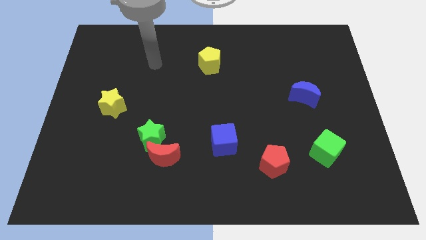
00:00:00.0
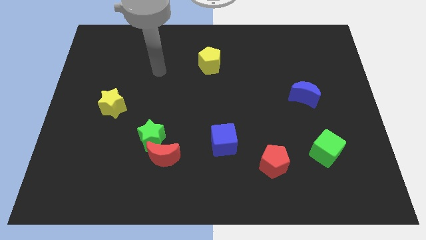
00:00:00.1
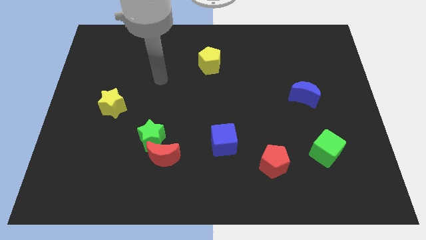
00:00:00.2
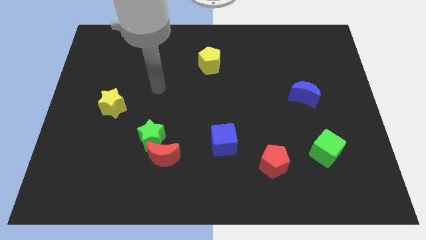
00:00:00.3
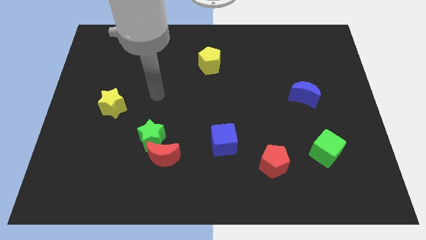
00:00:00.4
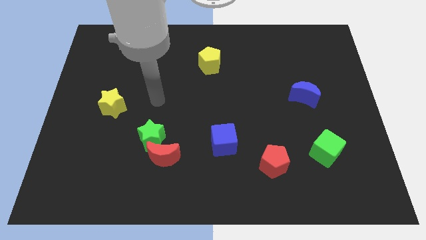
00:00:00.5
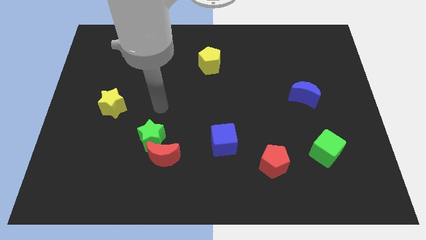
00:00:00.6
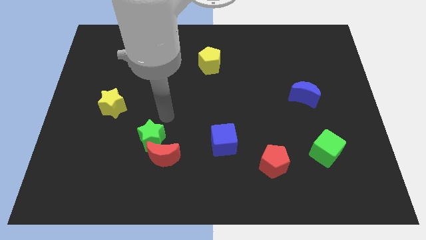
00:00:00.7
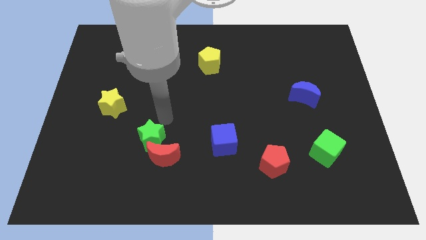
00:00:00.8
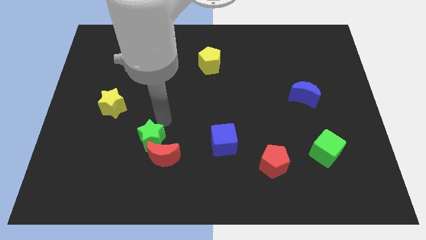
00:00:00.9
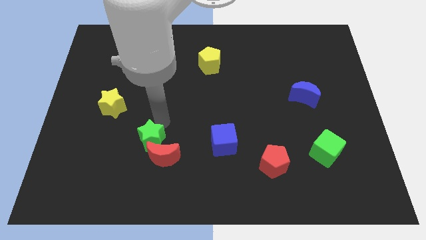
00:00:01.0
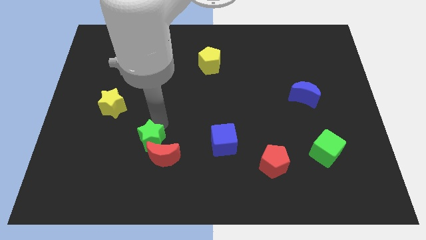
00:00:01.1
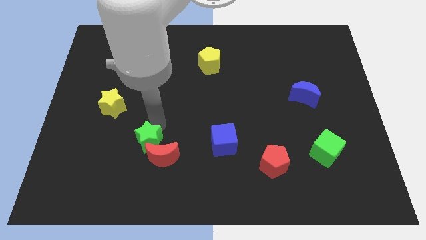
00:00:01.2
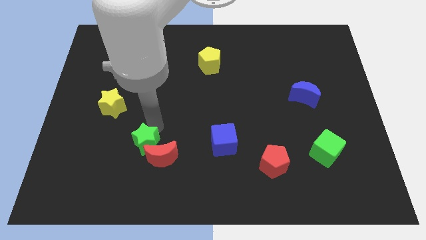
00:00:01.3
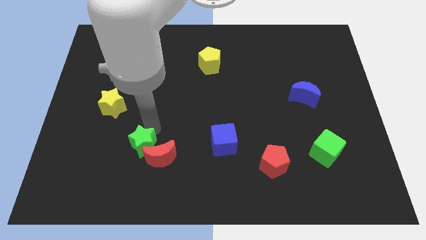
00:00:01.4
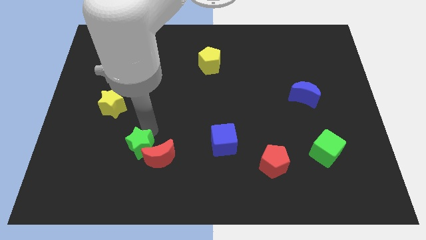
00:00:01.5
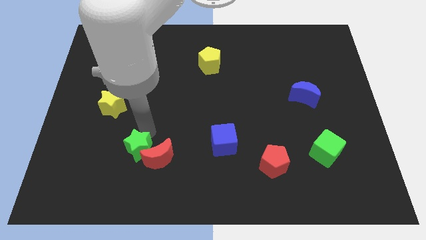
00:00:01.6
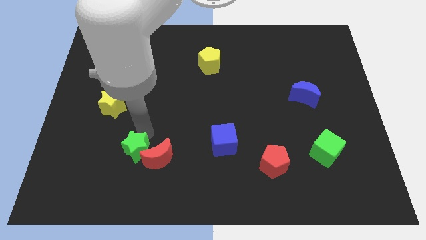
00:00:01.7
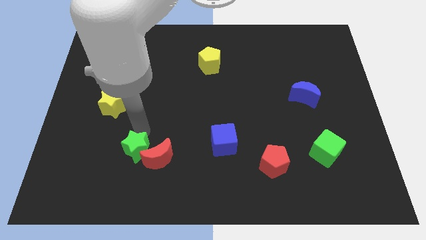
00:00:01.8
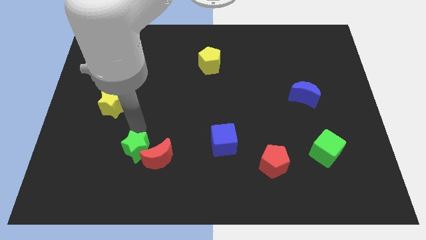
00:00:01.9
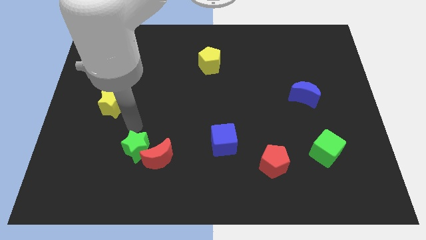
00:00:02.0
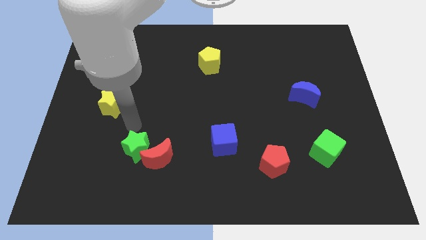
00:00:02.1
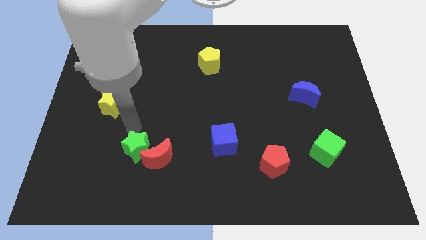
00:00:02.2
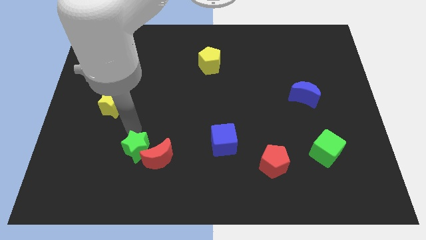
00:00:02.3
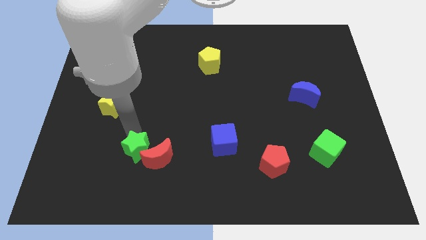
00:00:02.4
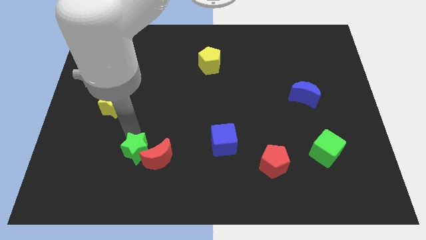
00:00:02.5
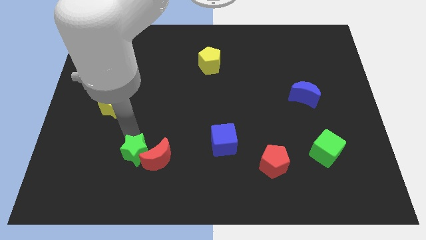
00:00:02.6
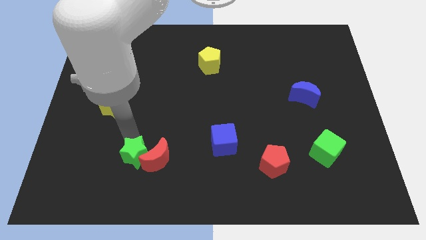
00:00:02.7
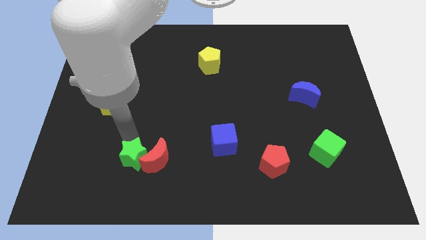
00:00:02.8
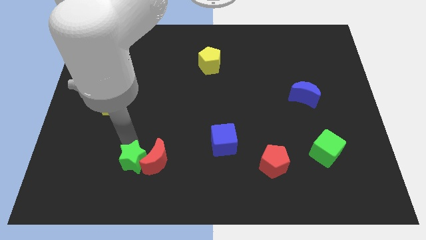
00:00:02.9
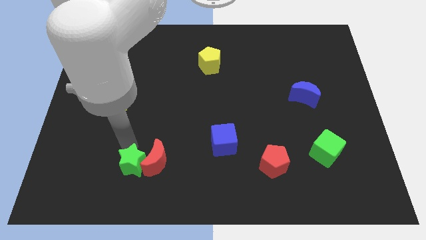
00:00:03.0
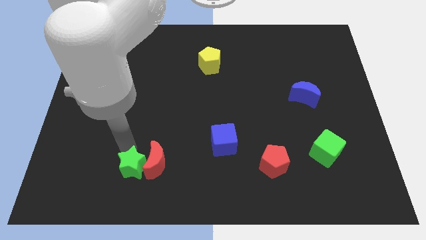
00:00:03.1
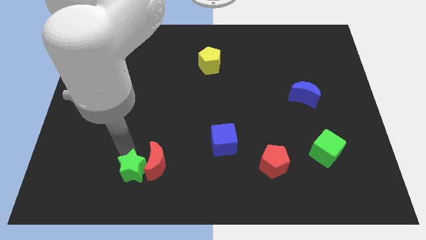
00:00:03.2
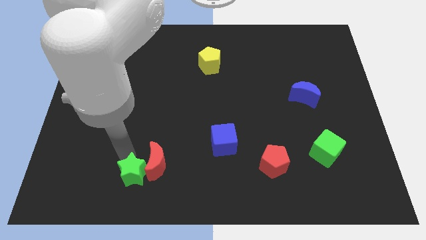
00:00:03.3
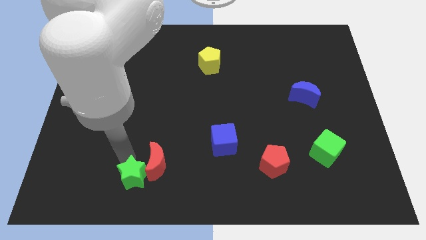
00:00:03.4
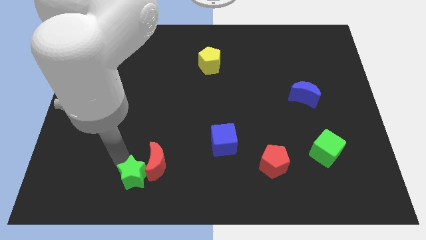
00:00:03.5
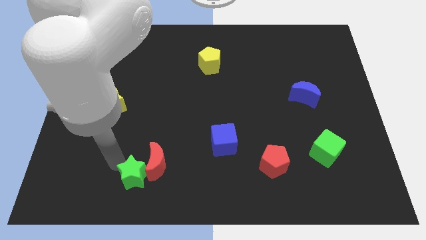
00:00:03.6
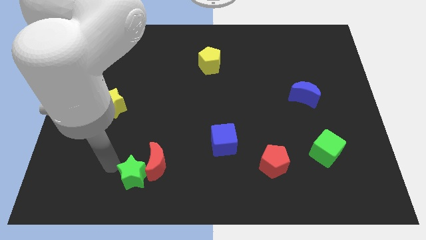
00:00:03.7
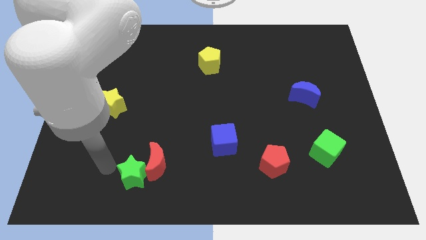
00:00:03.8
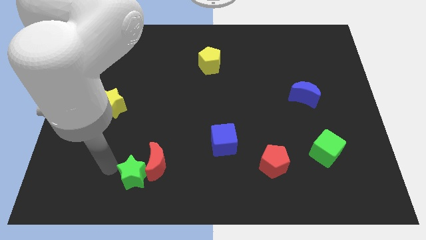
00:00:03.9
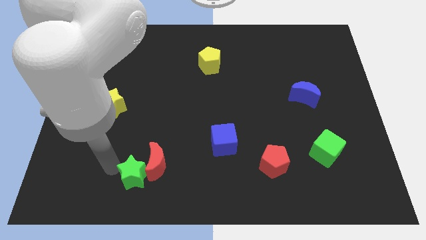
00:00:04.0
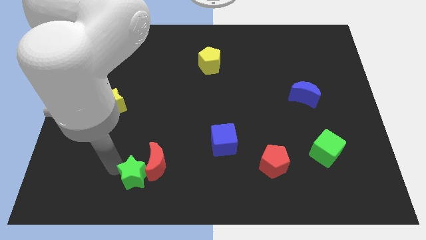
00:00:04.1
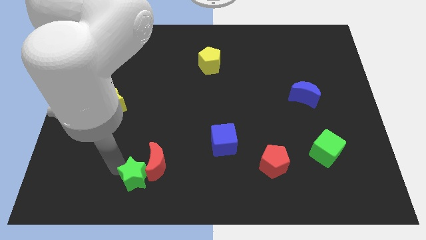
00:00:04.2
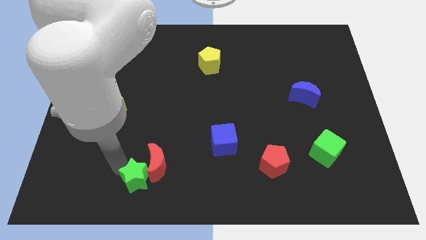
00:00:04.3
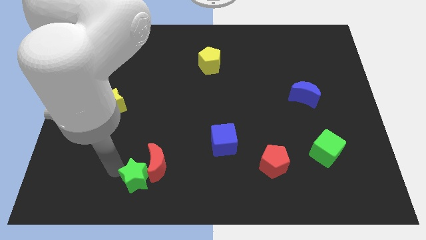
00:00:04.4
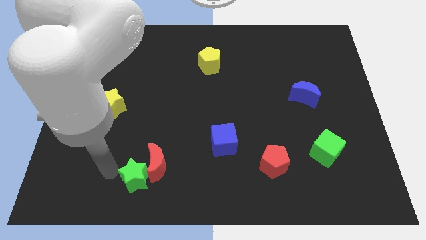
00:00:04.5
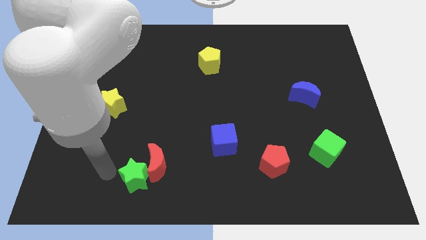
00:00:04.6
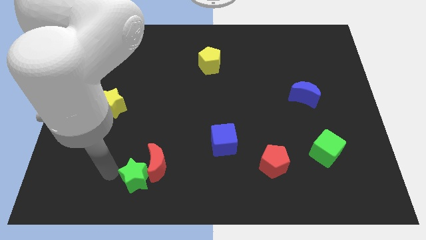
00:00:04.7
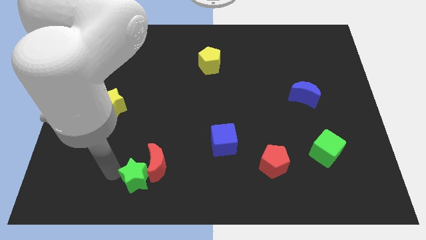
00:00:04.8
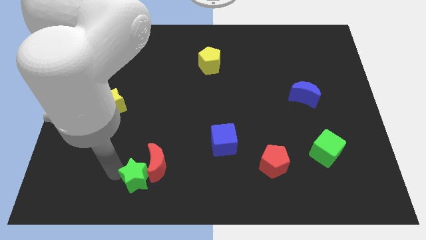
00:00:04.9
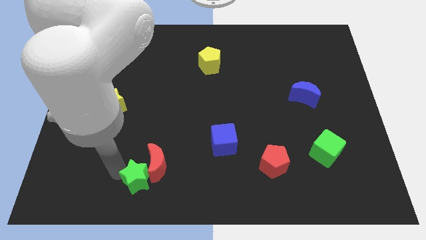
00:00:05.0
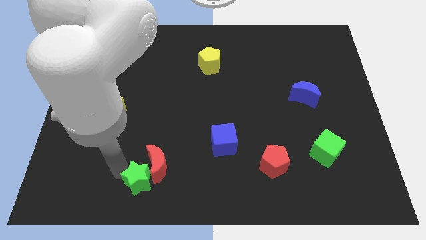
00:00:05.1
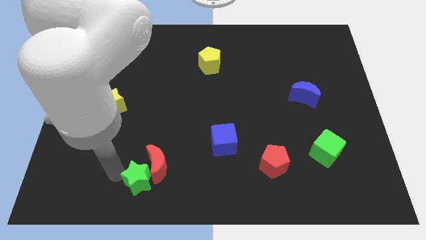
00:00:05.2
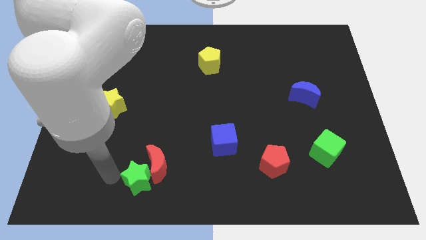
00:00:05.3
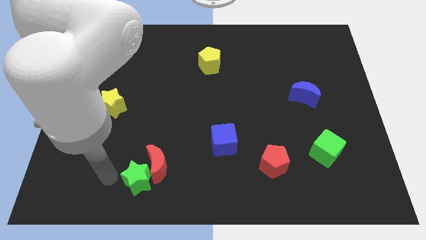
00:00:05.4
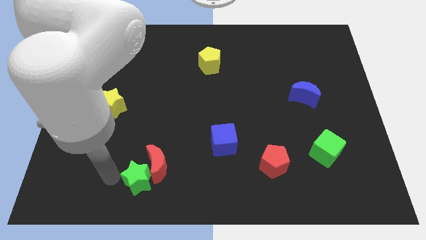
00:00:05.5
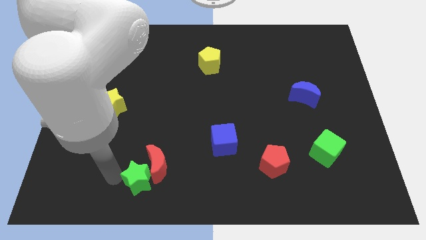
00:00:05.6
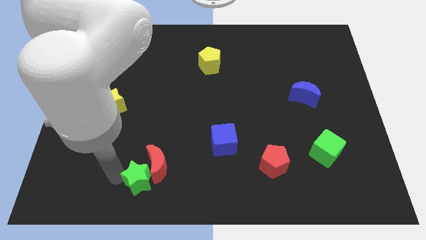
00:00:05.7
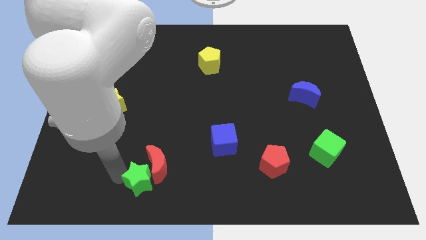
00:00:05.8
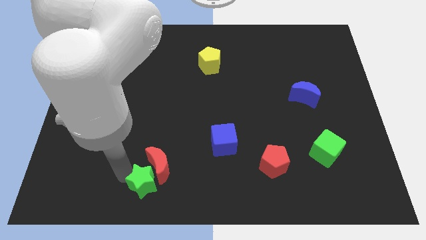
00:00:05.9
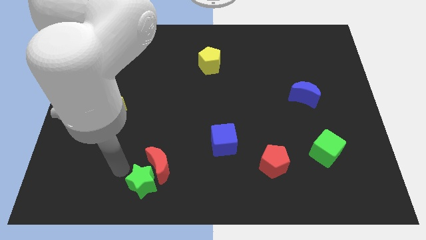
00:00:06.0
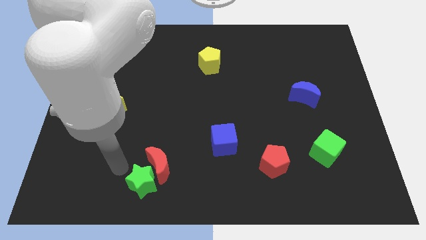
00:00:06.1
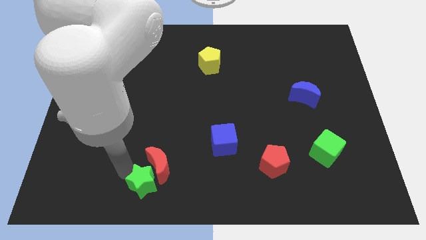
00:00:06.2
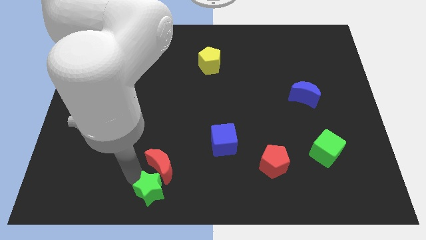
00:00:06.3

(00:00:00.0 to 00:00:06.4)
put the green star to the bottom
